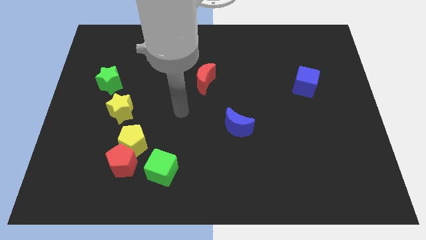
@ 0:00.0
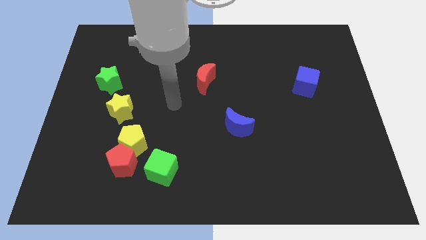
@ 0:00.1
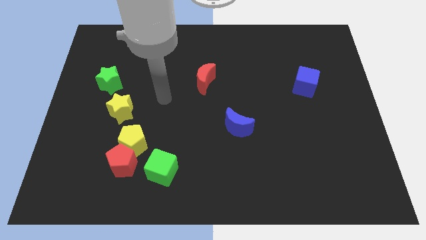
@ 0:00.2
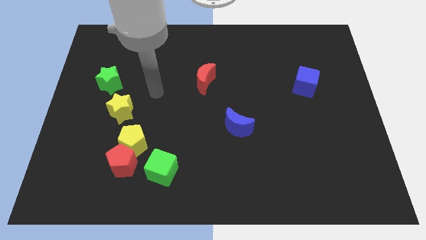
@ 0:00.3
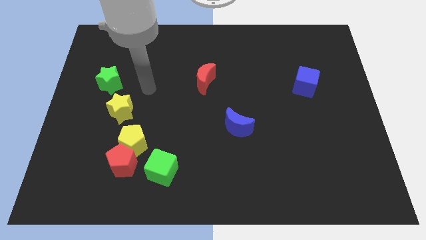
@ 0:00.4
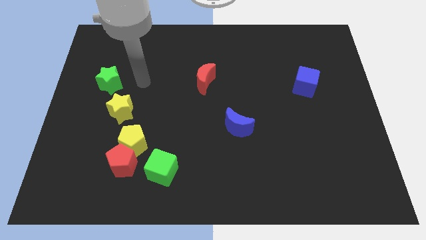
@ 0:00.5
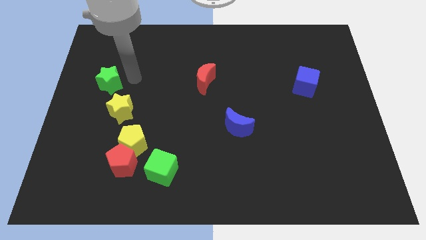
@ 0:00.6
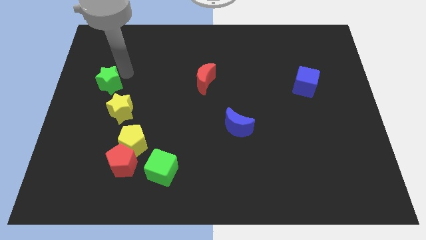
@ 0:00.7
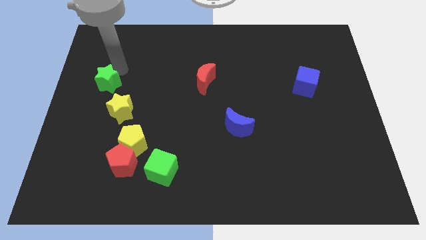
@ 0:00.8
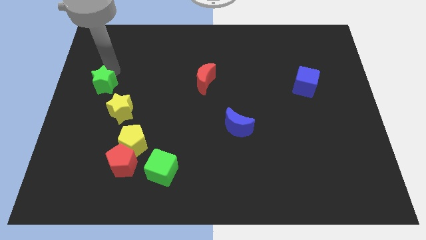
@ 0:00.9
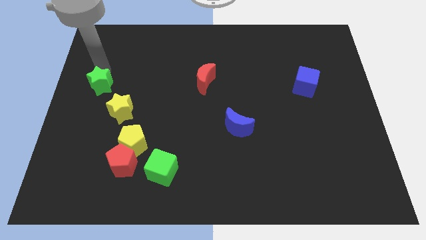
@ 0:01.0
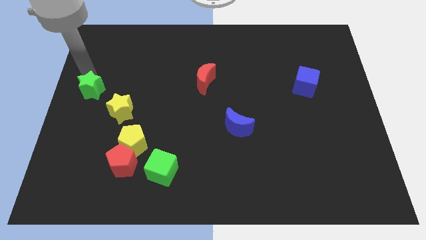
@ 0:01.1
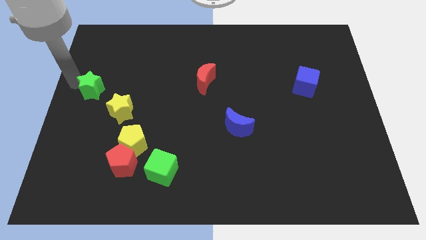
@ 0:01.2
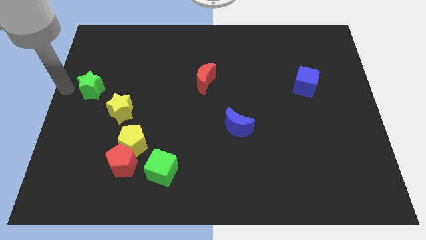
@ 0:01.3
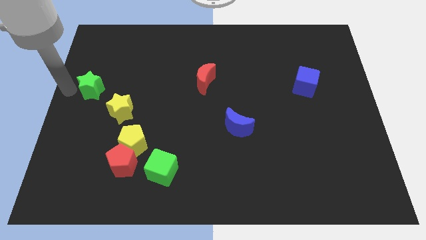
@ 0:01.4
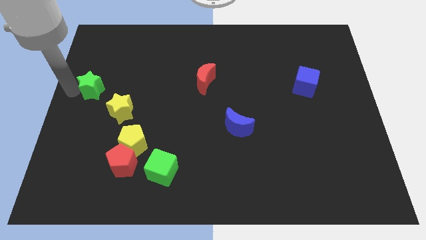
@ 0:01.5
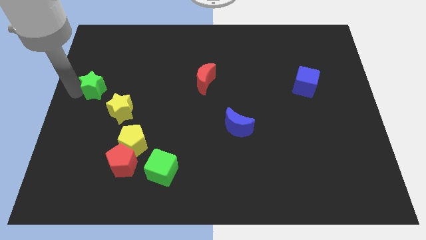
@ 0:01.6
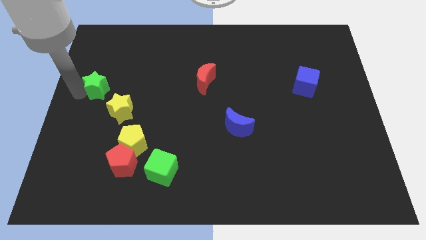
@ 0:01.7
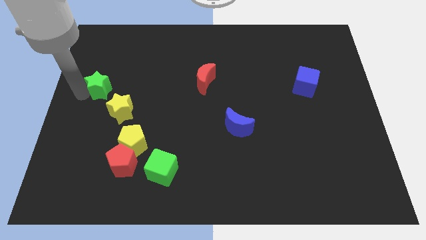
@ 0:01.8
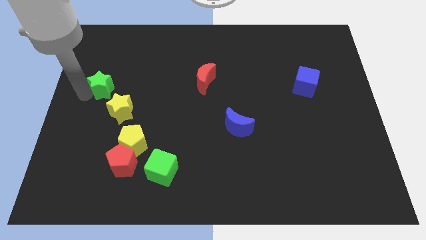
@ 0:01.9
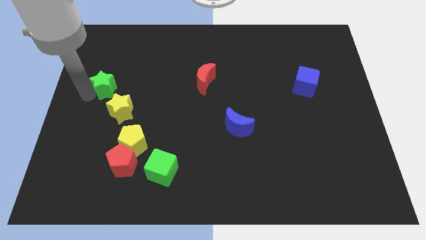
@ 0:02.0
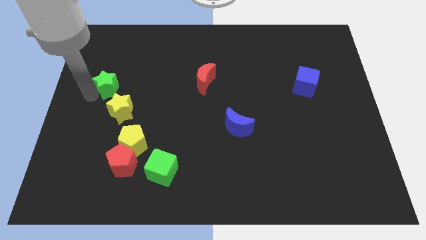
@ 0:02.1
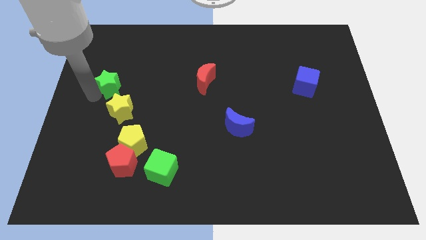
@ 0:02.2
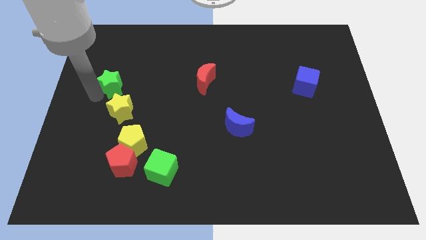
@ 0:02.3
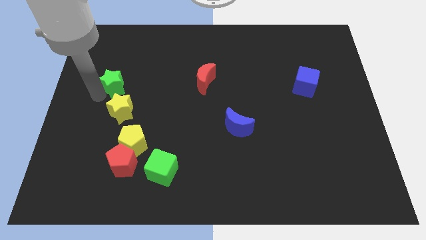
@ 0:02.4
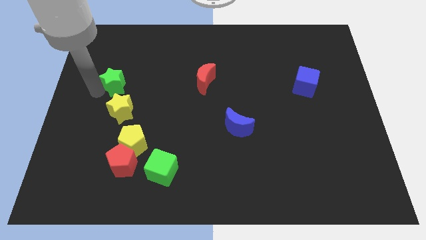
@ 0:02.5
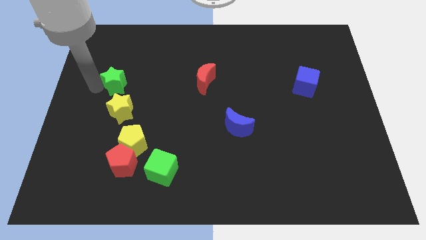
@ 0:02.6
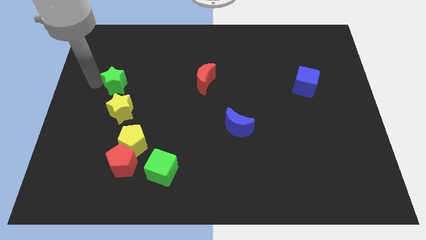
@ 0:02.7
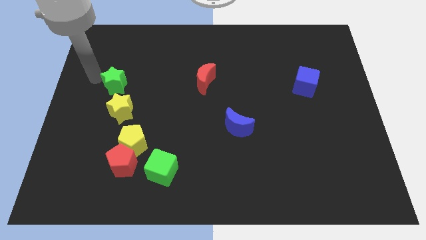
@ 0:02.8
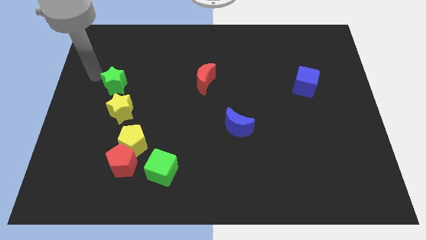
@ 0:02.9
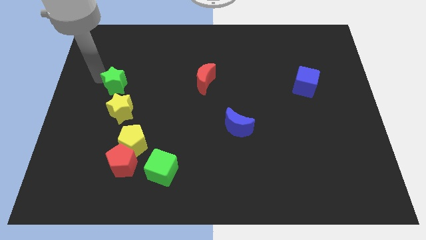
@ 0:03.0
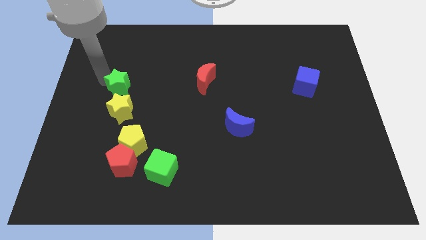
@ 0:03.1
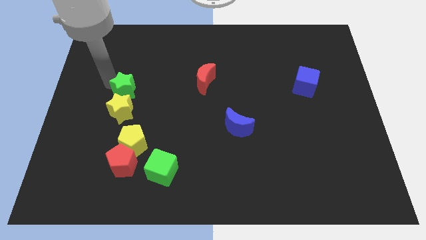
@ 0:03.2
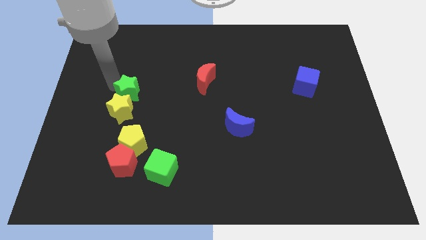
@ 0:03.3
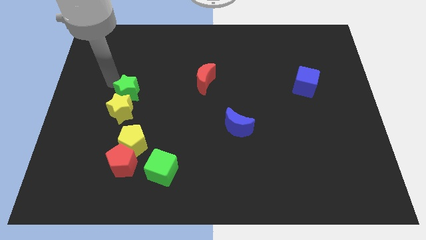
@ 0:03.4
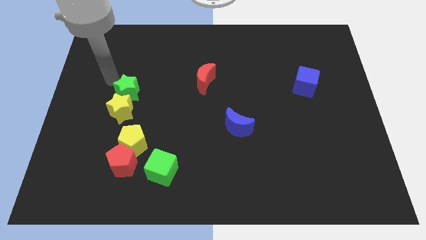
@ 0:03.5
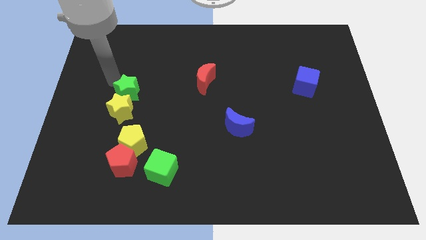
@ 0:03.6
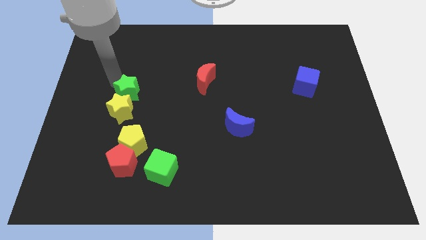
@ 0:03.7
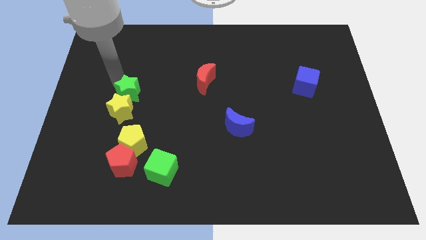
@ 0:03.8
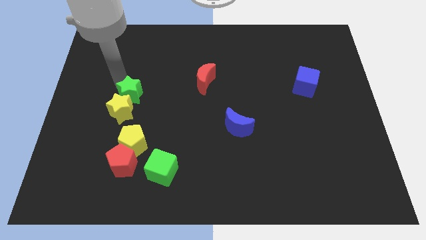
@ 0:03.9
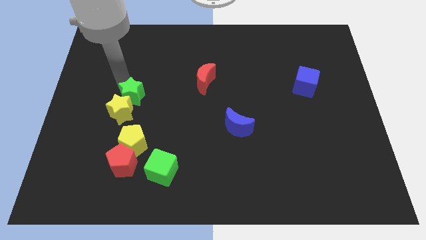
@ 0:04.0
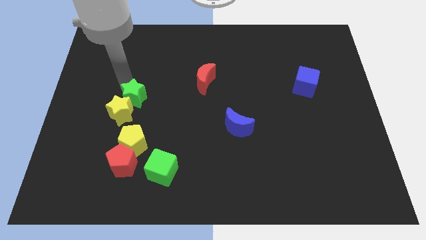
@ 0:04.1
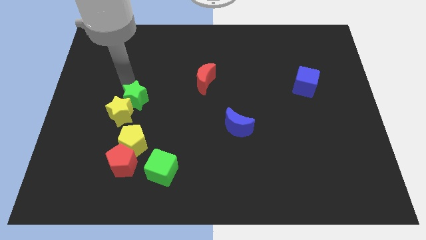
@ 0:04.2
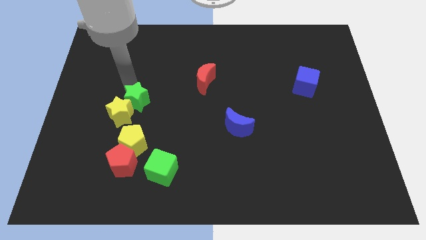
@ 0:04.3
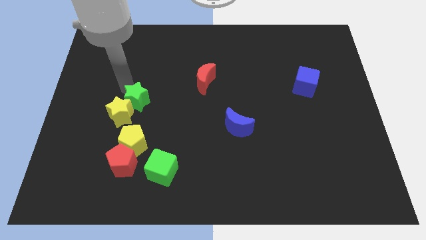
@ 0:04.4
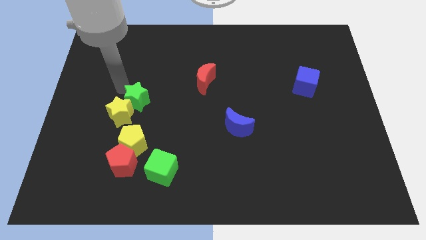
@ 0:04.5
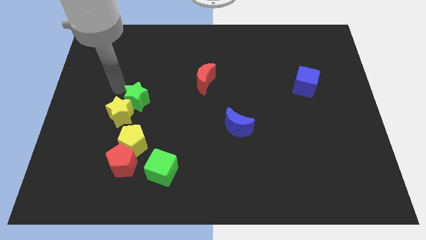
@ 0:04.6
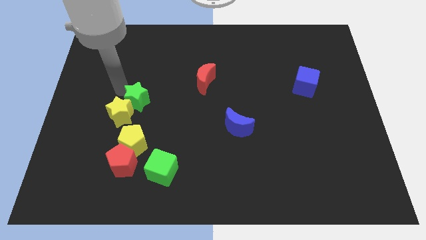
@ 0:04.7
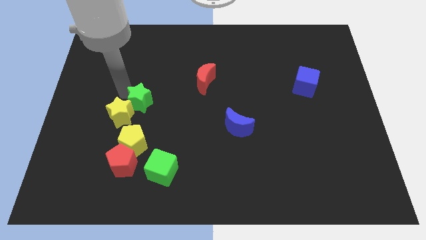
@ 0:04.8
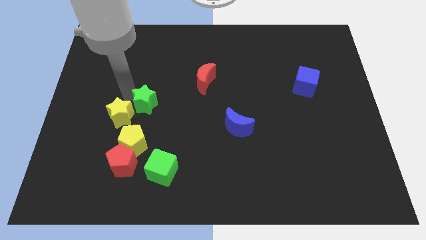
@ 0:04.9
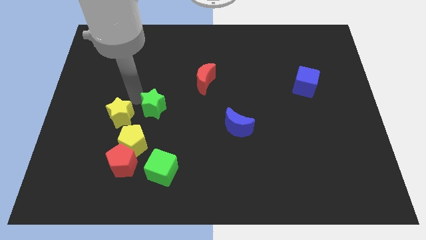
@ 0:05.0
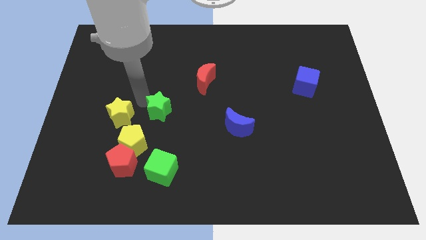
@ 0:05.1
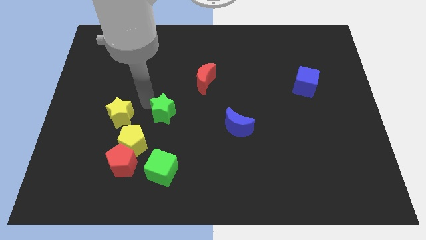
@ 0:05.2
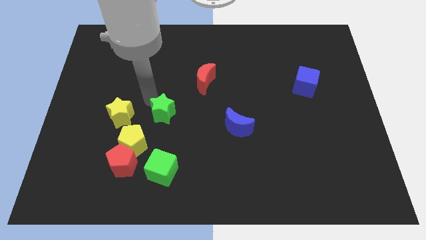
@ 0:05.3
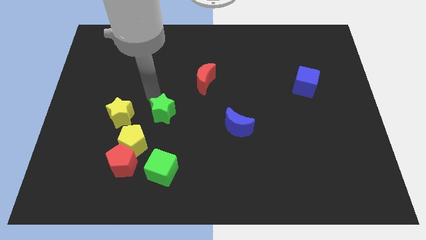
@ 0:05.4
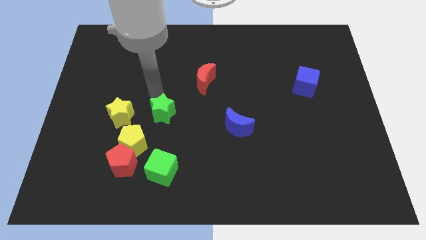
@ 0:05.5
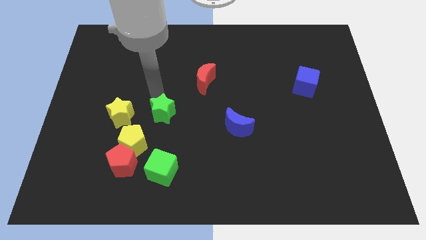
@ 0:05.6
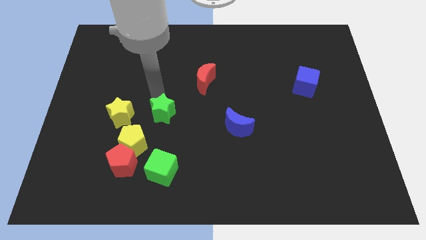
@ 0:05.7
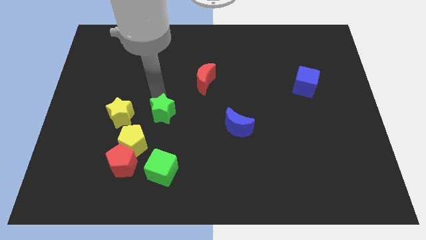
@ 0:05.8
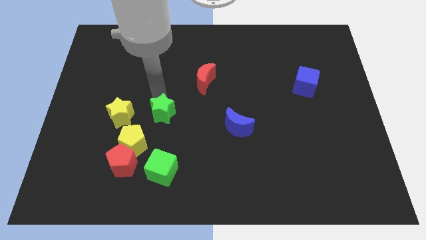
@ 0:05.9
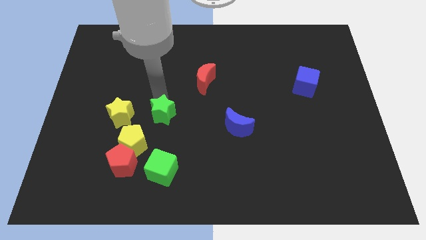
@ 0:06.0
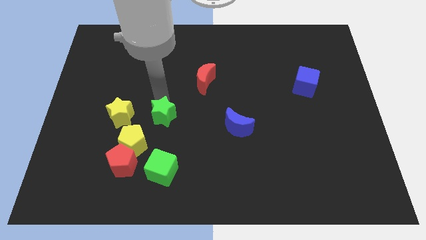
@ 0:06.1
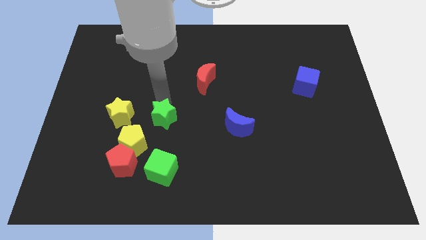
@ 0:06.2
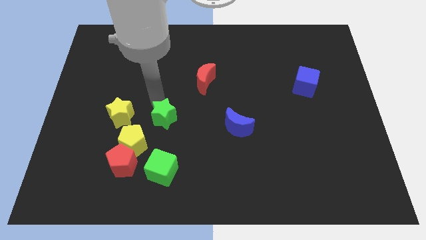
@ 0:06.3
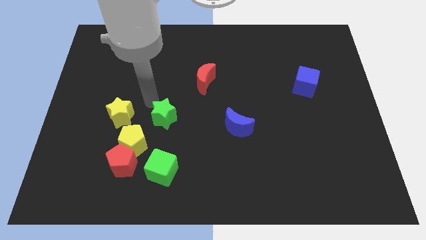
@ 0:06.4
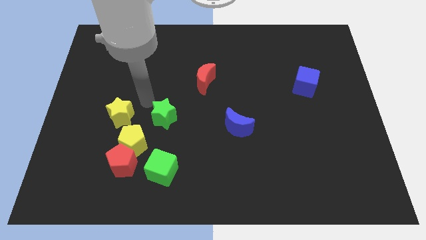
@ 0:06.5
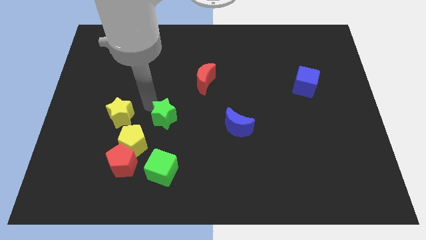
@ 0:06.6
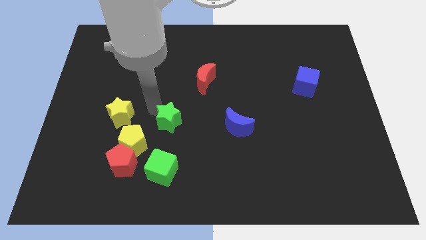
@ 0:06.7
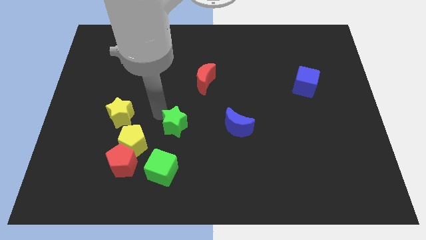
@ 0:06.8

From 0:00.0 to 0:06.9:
move the green star diagonally downwards and to the right

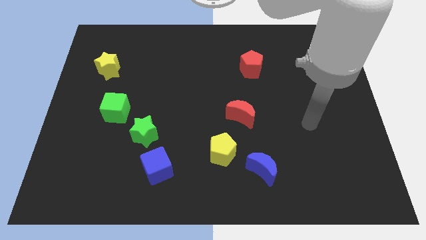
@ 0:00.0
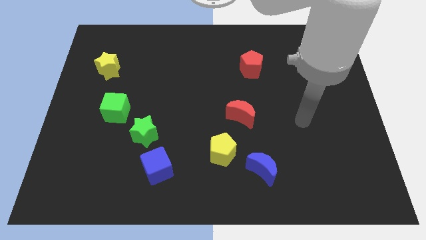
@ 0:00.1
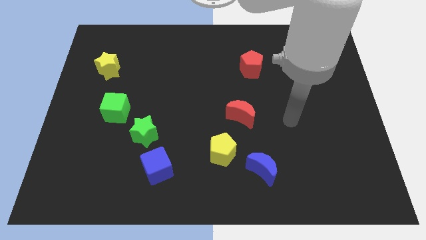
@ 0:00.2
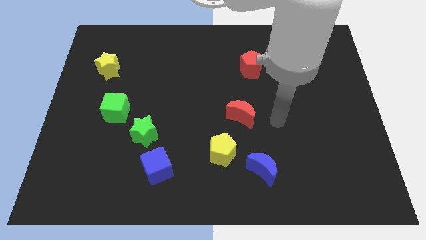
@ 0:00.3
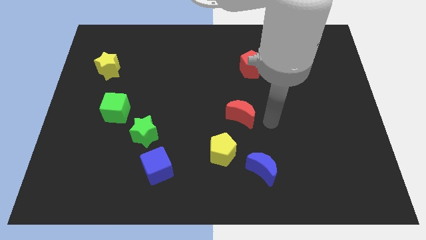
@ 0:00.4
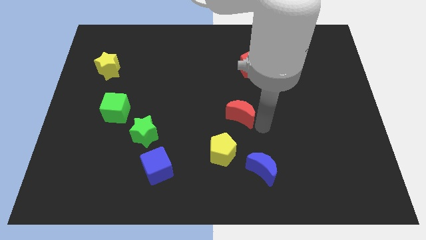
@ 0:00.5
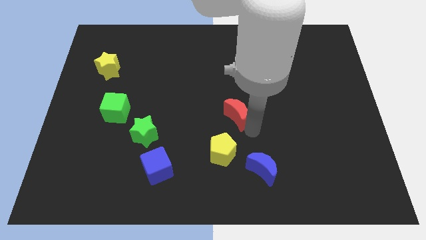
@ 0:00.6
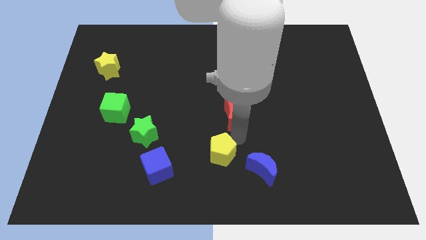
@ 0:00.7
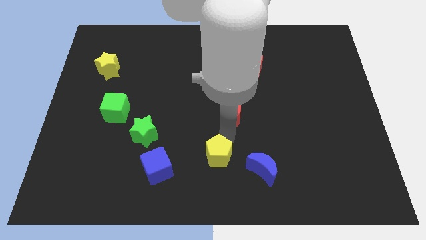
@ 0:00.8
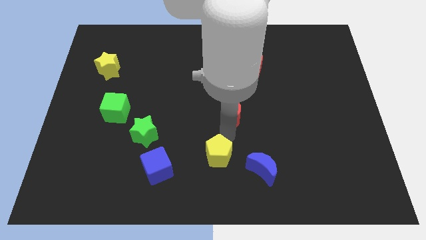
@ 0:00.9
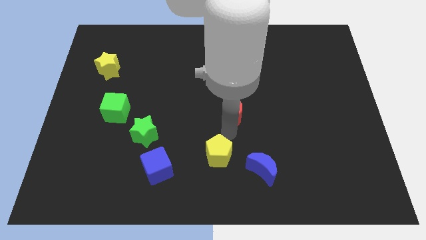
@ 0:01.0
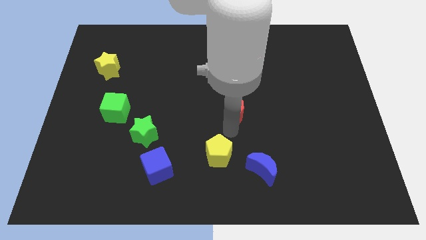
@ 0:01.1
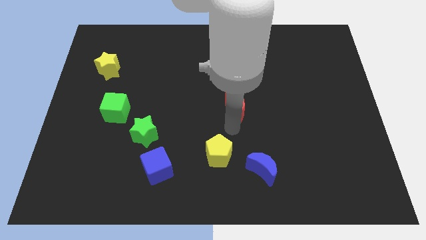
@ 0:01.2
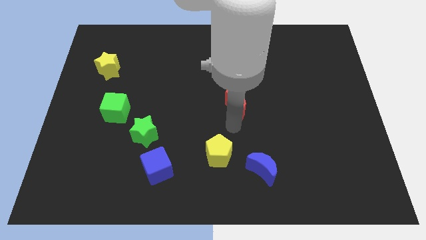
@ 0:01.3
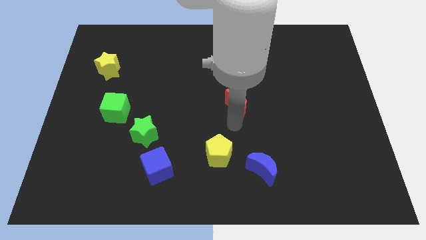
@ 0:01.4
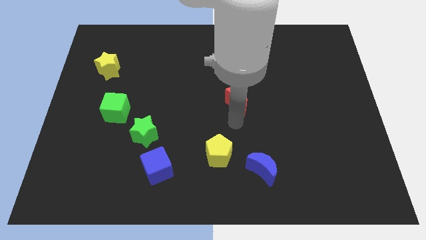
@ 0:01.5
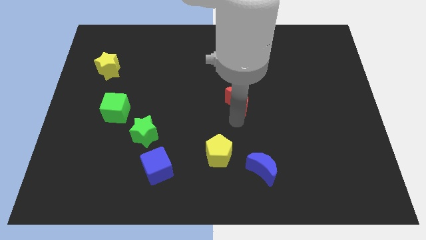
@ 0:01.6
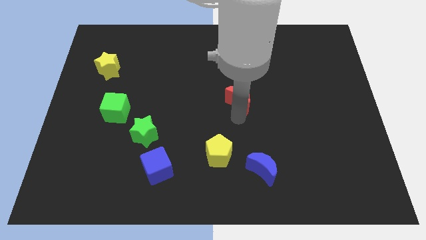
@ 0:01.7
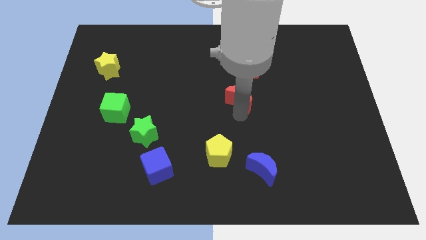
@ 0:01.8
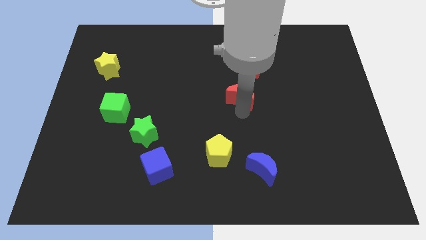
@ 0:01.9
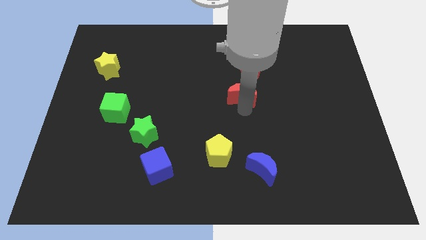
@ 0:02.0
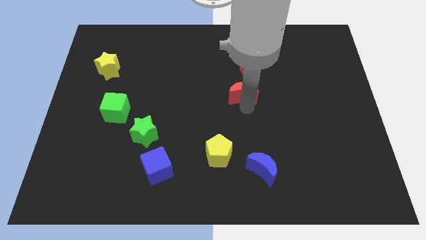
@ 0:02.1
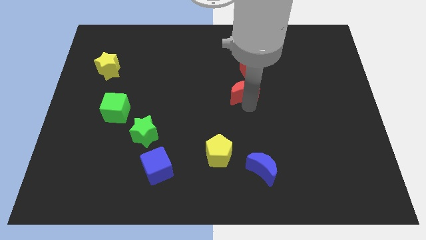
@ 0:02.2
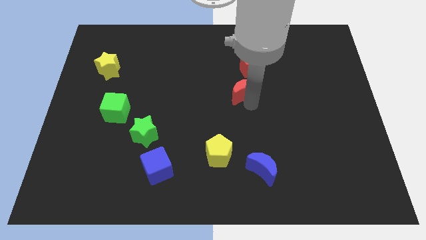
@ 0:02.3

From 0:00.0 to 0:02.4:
slightly slide the red moon up
